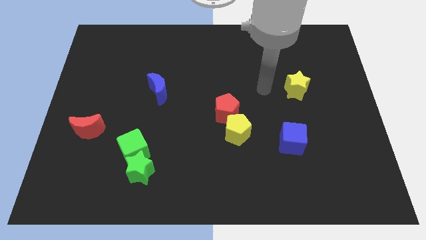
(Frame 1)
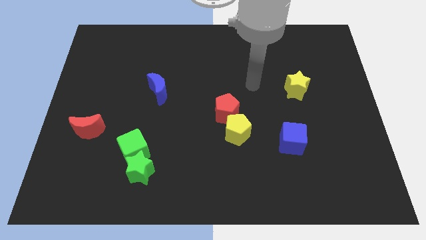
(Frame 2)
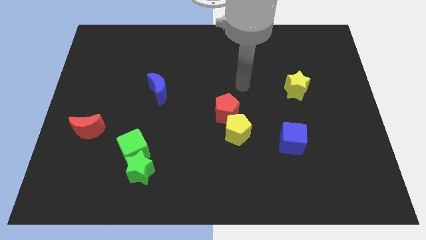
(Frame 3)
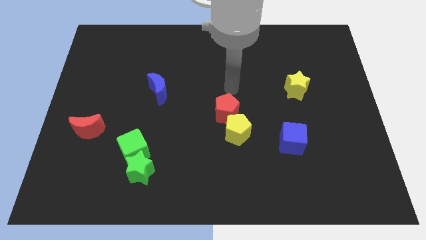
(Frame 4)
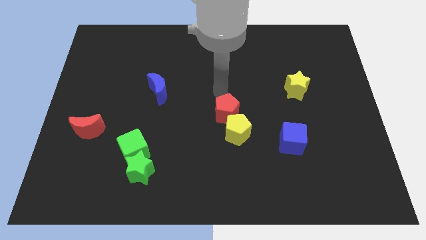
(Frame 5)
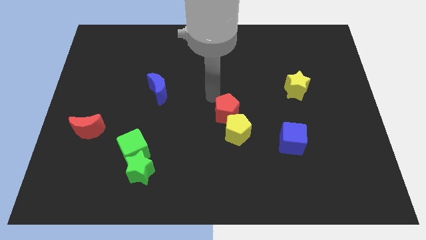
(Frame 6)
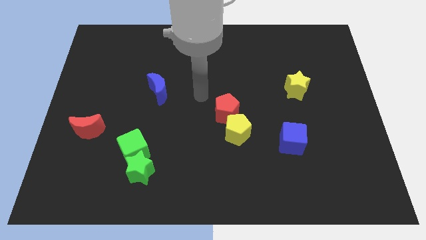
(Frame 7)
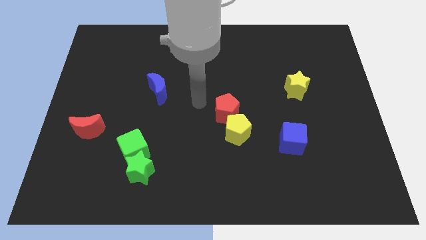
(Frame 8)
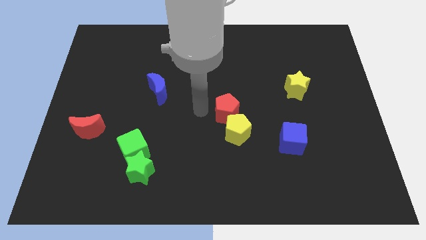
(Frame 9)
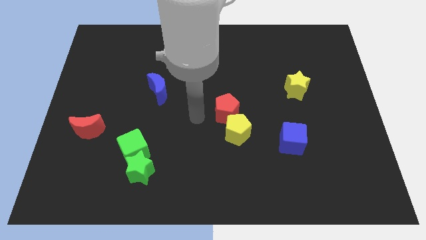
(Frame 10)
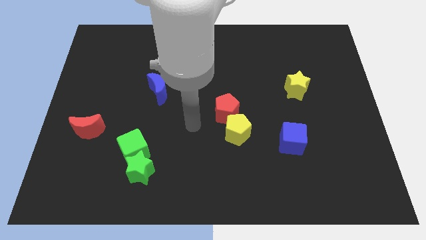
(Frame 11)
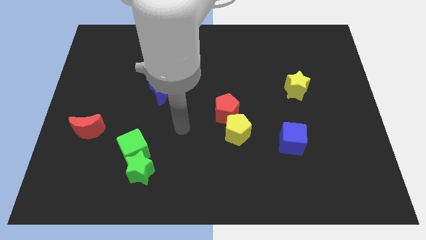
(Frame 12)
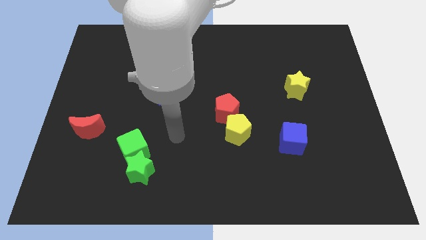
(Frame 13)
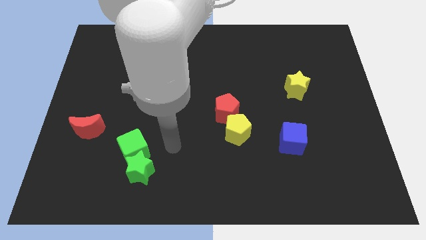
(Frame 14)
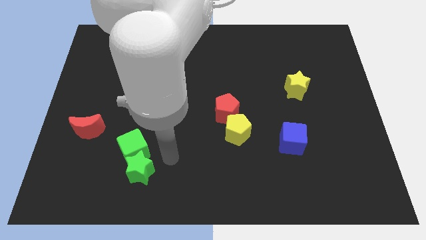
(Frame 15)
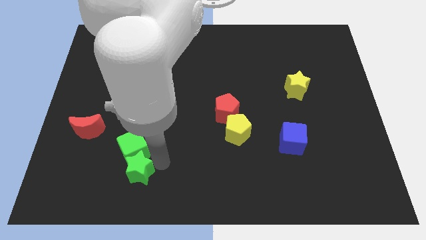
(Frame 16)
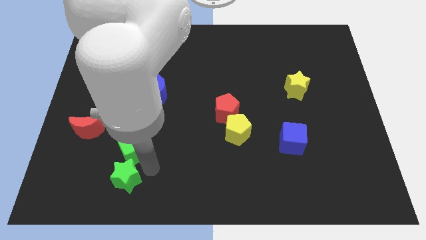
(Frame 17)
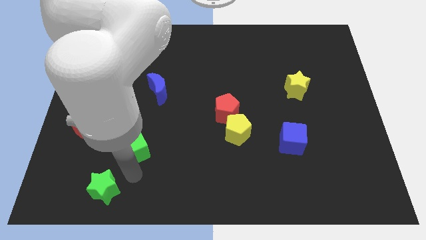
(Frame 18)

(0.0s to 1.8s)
separate the green cube from the green star

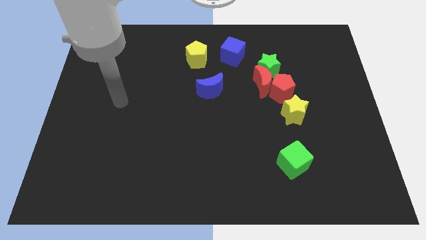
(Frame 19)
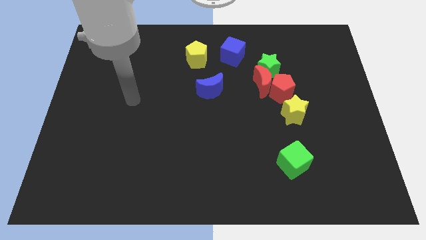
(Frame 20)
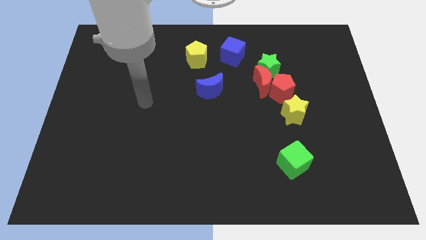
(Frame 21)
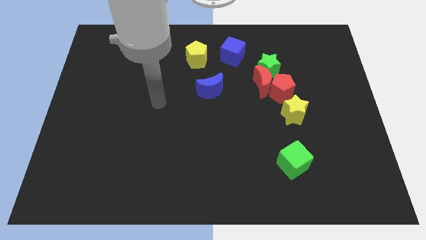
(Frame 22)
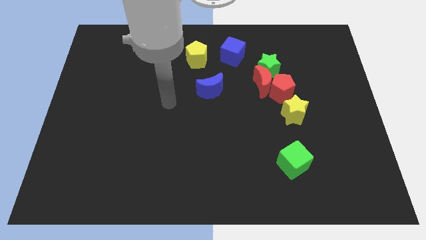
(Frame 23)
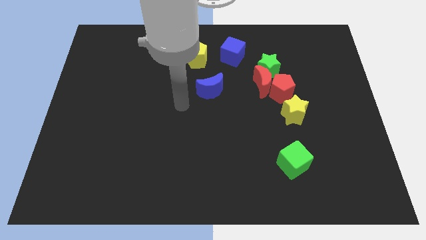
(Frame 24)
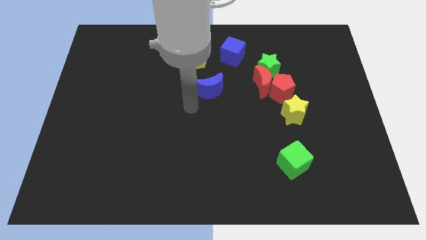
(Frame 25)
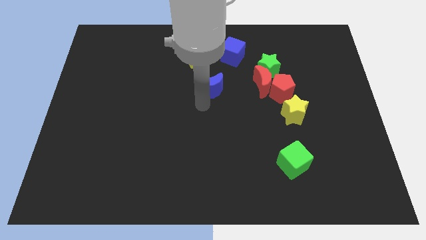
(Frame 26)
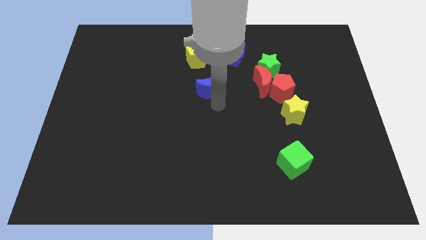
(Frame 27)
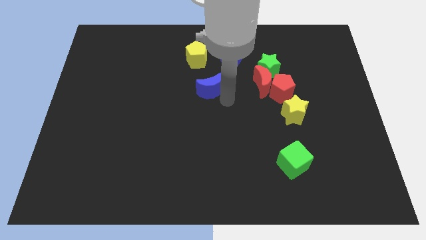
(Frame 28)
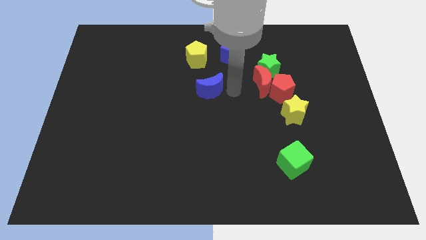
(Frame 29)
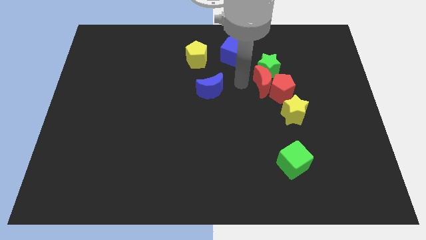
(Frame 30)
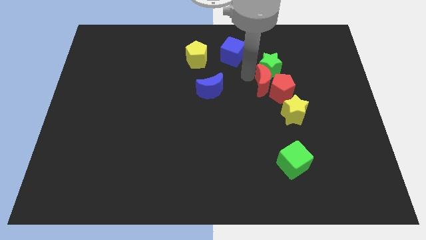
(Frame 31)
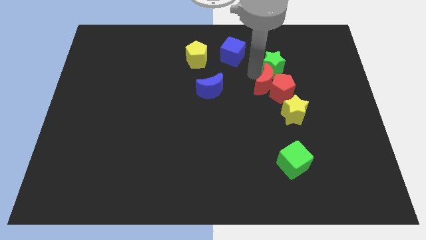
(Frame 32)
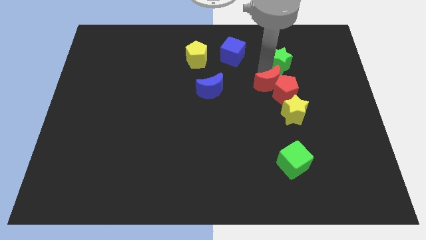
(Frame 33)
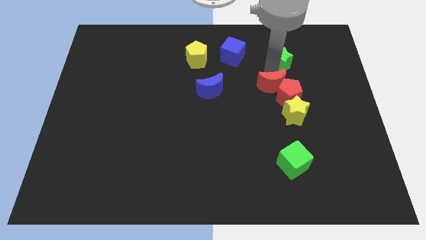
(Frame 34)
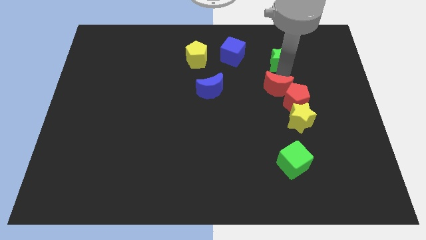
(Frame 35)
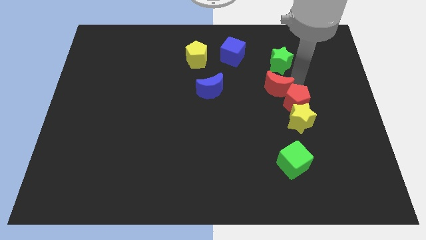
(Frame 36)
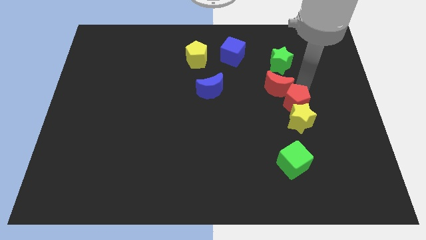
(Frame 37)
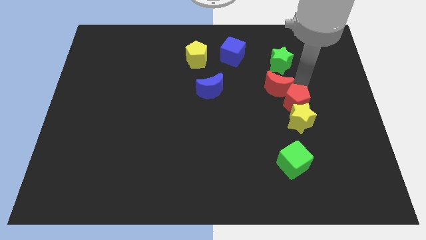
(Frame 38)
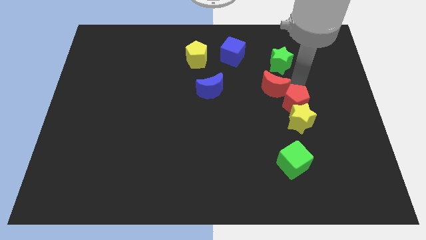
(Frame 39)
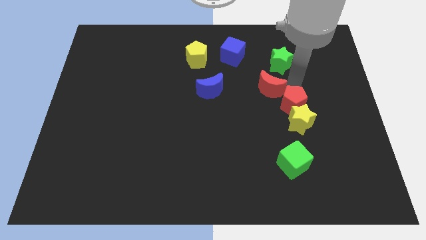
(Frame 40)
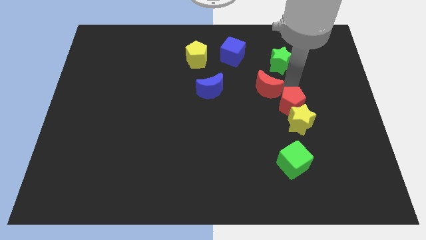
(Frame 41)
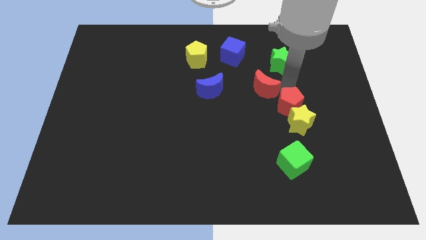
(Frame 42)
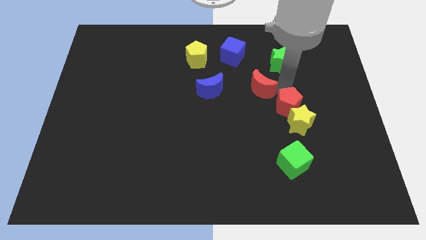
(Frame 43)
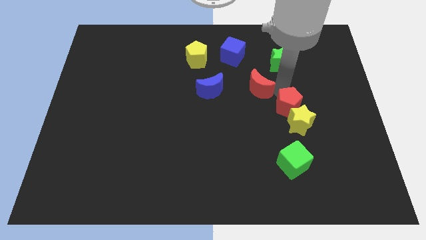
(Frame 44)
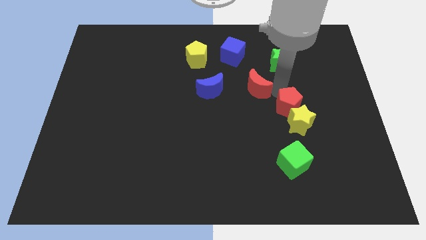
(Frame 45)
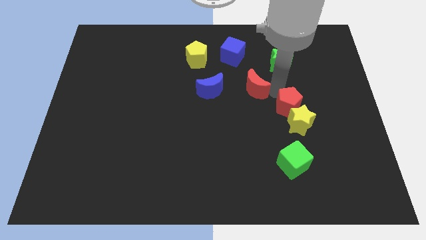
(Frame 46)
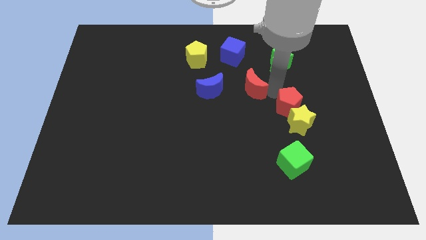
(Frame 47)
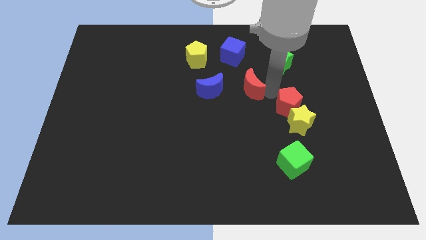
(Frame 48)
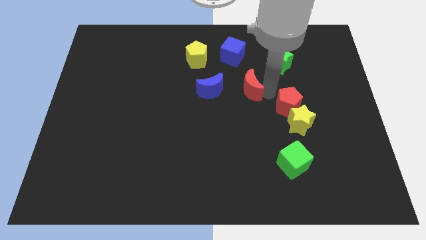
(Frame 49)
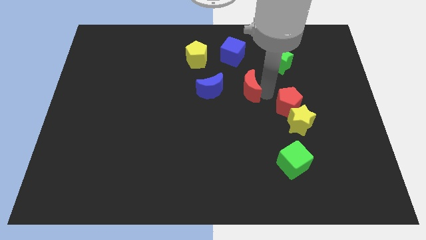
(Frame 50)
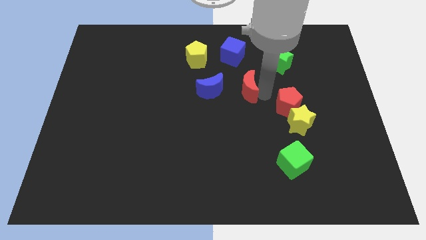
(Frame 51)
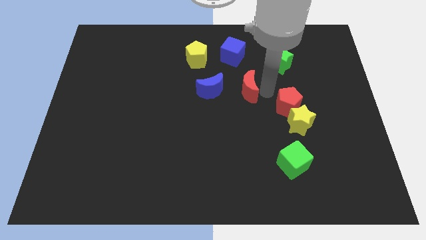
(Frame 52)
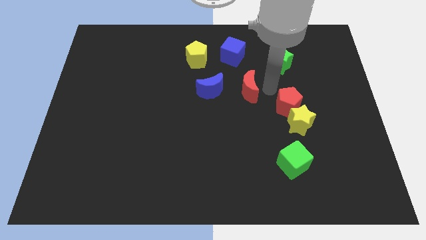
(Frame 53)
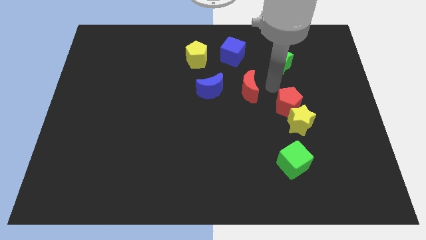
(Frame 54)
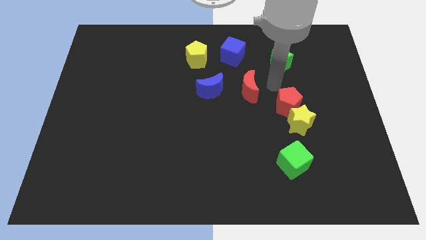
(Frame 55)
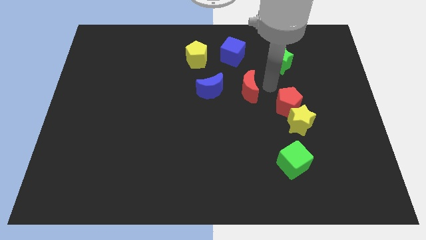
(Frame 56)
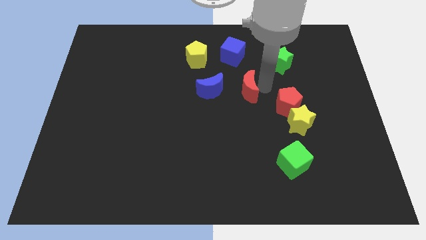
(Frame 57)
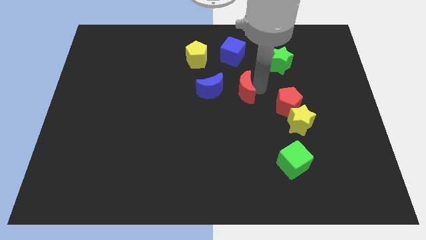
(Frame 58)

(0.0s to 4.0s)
separate the red moon from the red pentagon and green star

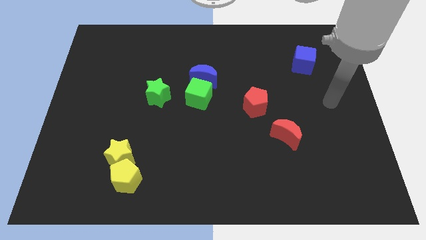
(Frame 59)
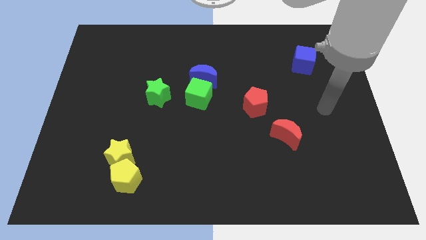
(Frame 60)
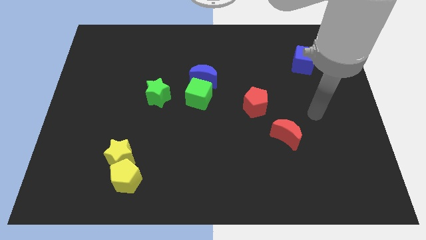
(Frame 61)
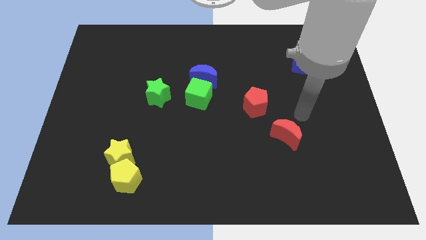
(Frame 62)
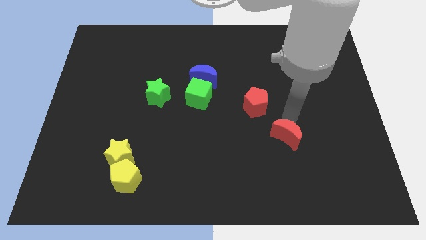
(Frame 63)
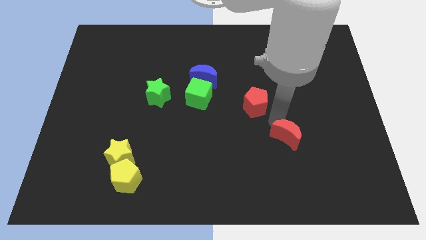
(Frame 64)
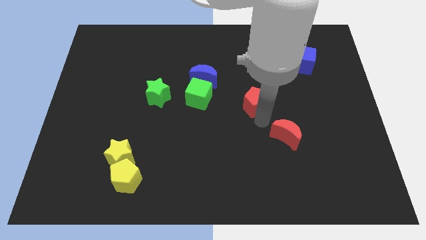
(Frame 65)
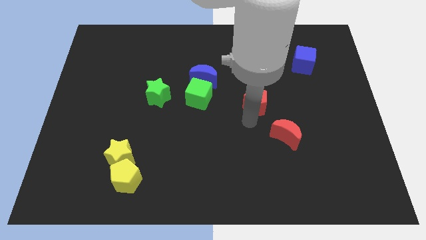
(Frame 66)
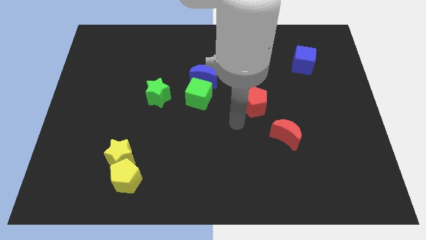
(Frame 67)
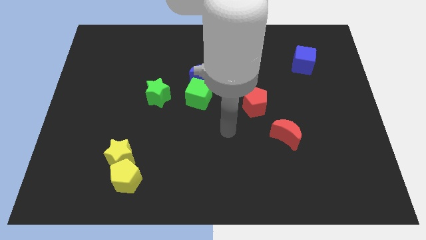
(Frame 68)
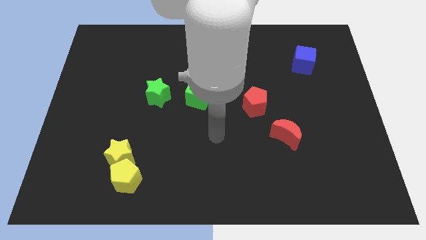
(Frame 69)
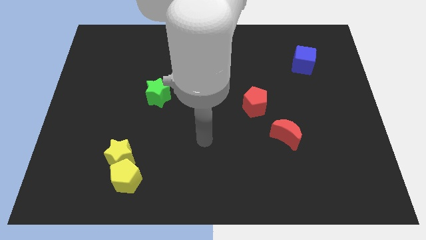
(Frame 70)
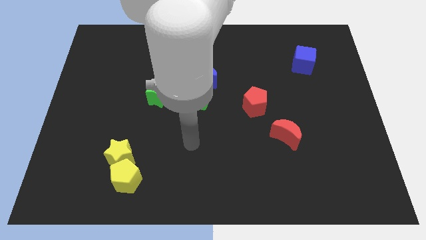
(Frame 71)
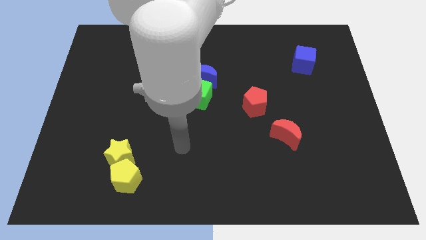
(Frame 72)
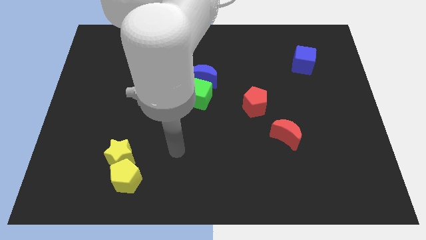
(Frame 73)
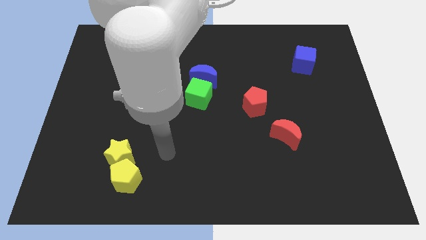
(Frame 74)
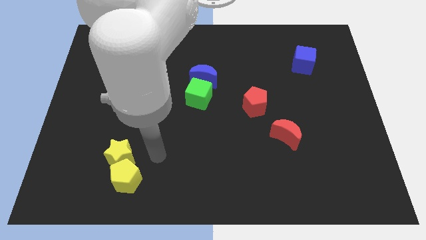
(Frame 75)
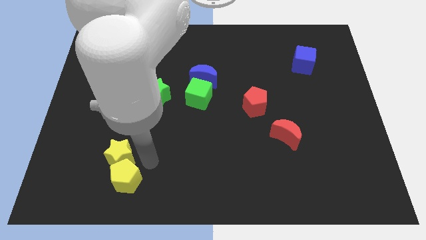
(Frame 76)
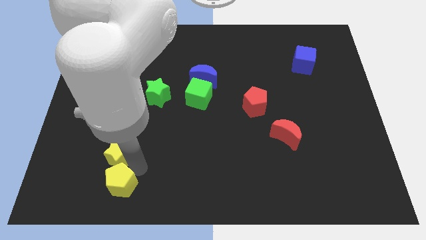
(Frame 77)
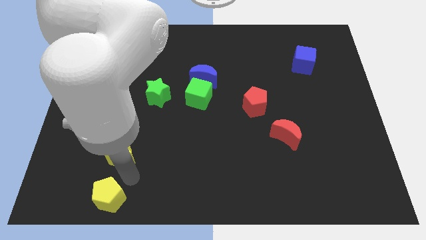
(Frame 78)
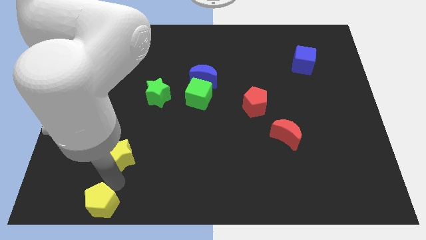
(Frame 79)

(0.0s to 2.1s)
pull the yellow star apart from the yellow pentagon

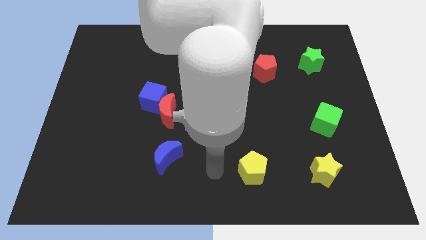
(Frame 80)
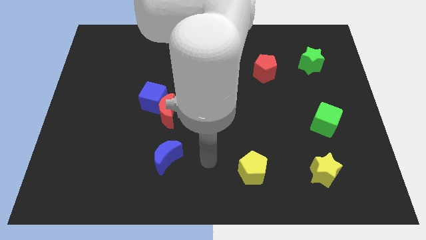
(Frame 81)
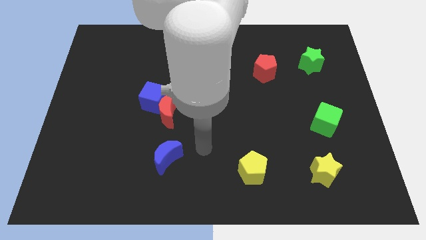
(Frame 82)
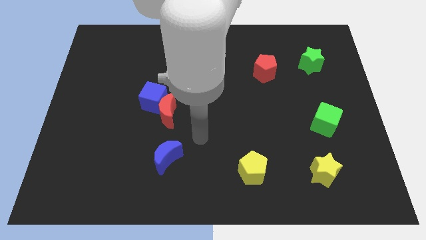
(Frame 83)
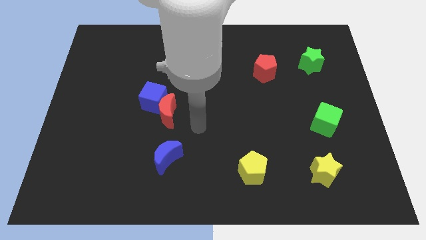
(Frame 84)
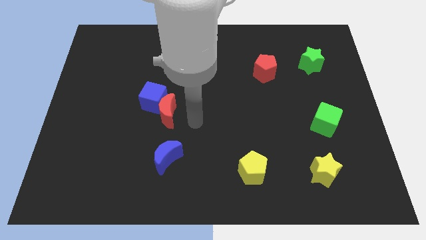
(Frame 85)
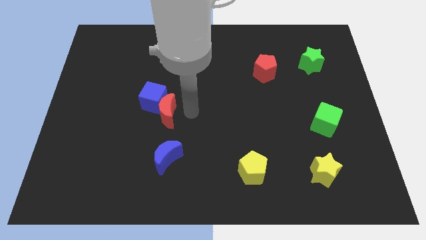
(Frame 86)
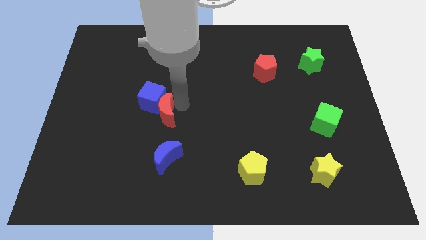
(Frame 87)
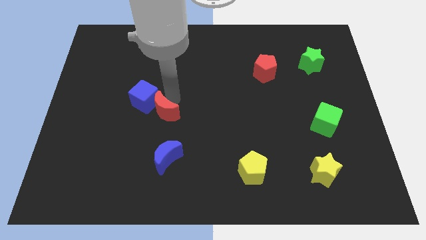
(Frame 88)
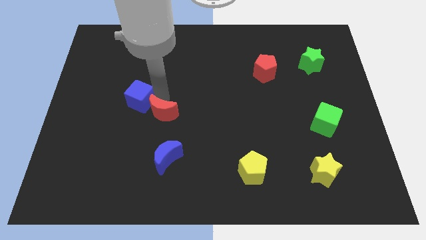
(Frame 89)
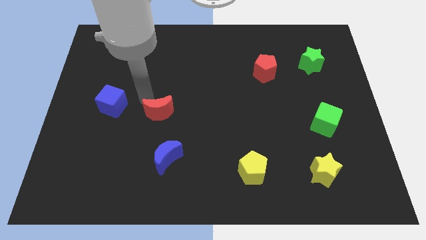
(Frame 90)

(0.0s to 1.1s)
move the red moon away from the blue cube

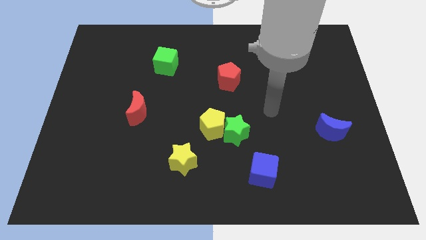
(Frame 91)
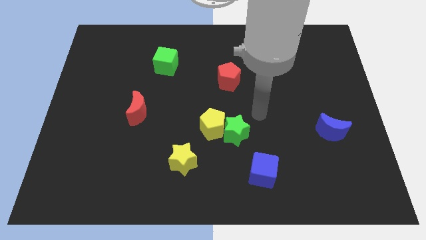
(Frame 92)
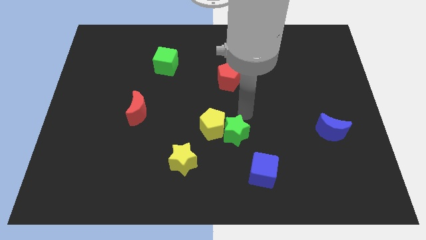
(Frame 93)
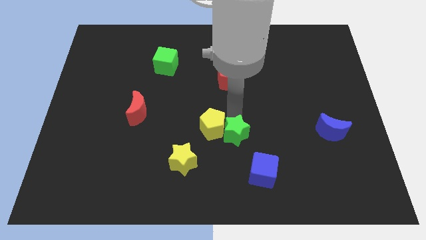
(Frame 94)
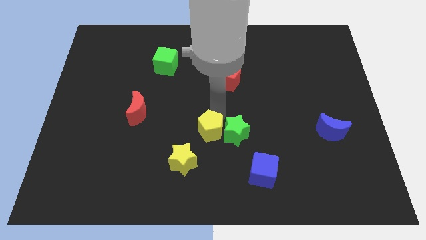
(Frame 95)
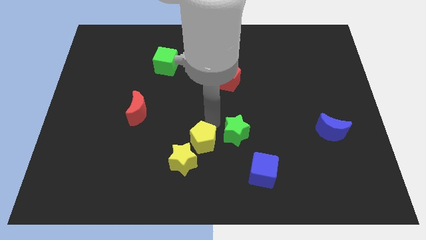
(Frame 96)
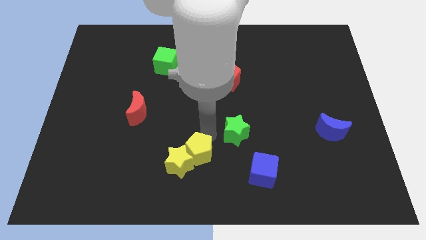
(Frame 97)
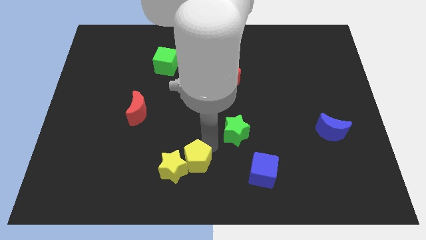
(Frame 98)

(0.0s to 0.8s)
separate the green star from the yellow pentagon
